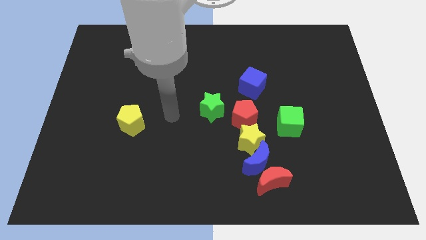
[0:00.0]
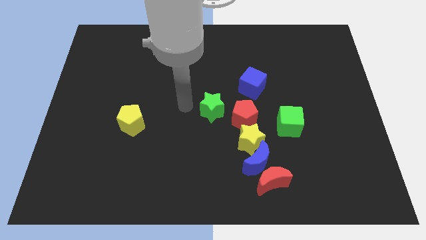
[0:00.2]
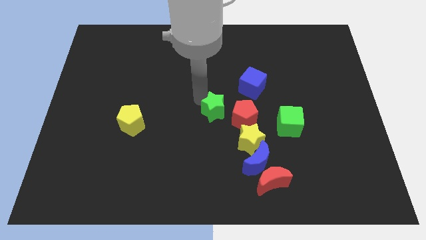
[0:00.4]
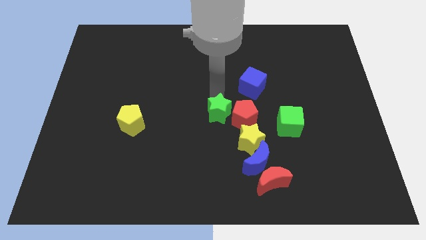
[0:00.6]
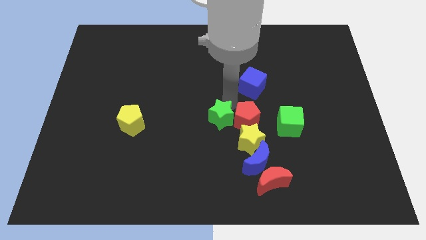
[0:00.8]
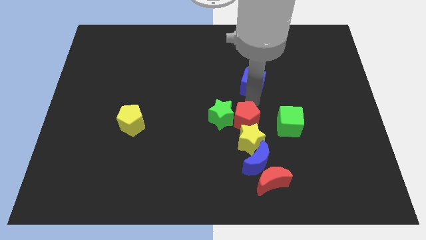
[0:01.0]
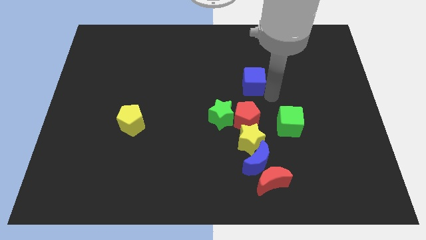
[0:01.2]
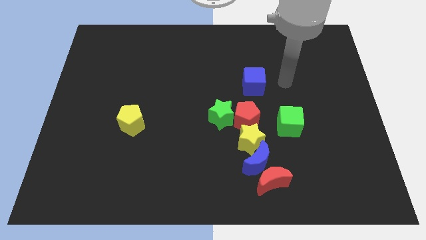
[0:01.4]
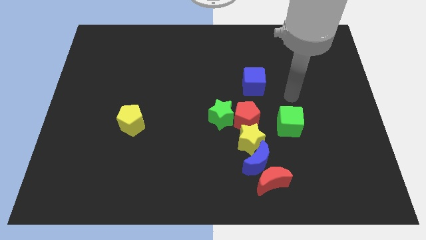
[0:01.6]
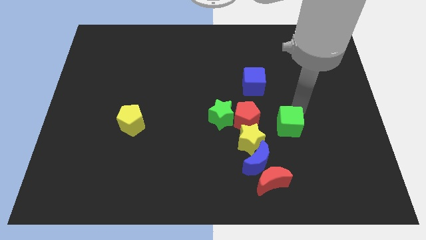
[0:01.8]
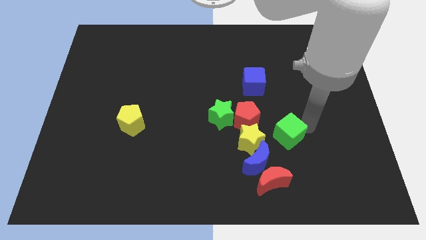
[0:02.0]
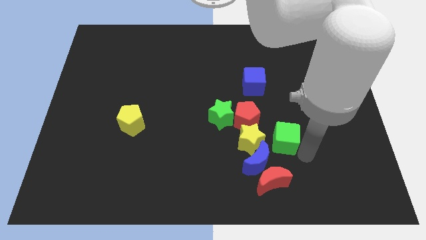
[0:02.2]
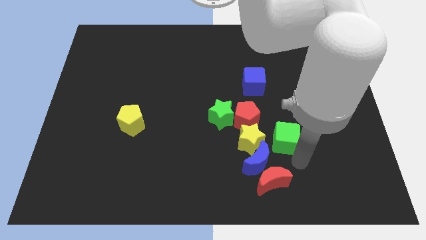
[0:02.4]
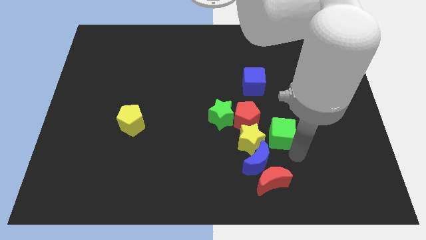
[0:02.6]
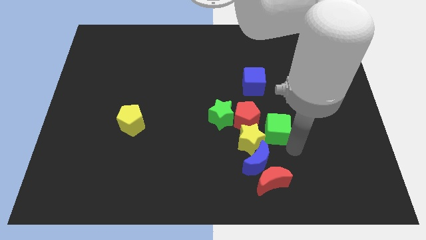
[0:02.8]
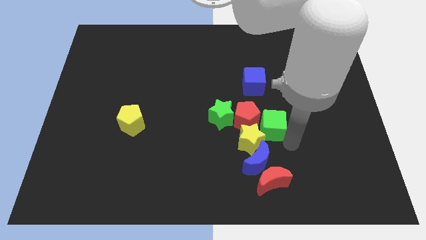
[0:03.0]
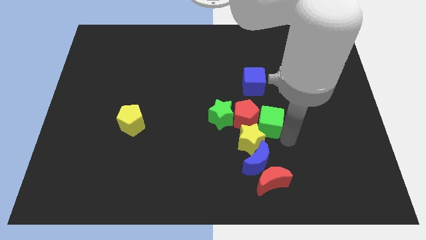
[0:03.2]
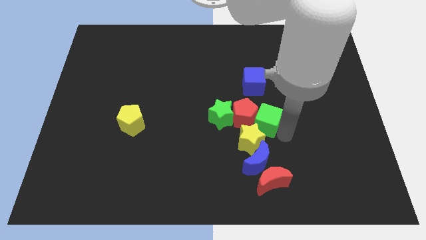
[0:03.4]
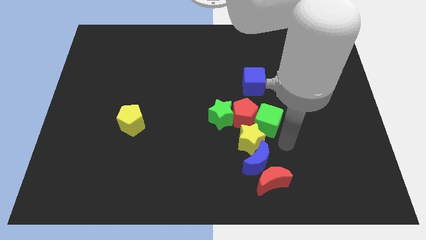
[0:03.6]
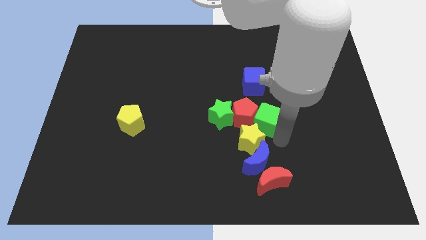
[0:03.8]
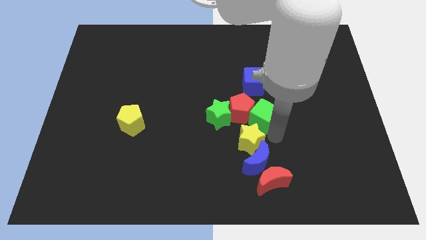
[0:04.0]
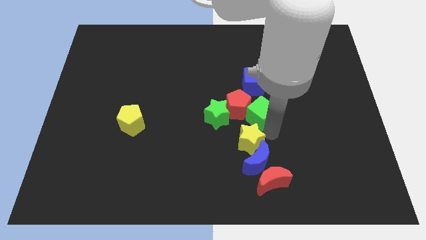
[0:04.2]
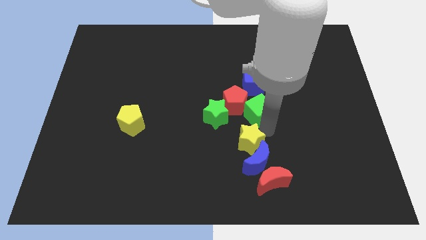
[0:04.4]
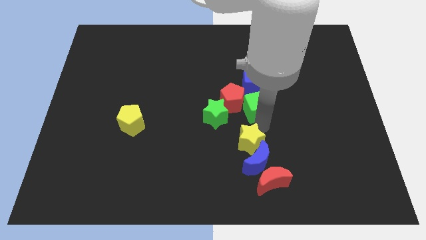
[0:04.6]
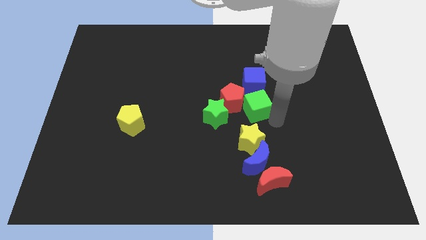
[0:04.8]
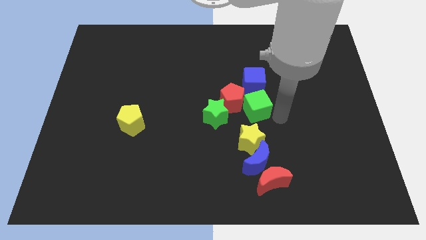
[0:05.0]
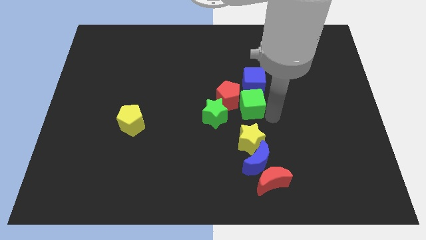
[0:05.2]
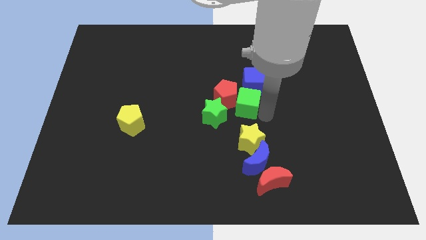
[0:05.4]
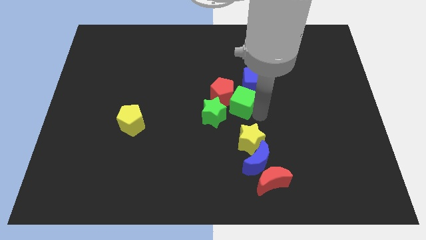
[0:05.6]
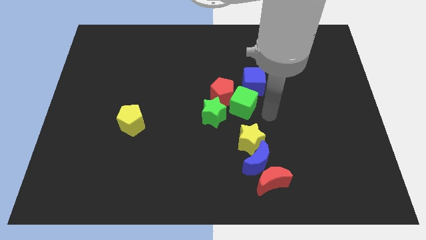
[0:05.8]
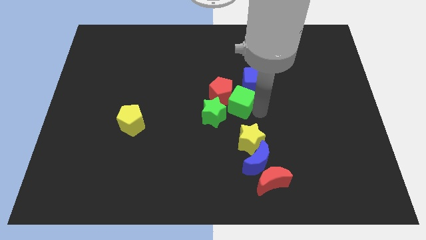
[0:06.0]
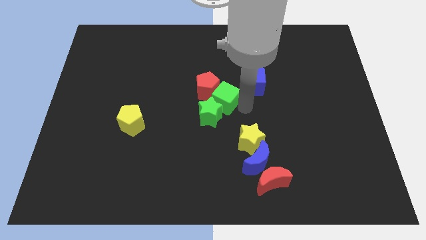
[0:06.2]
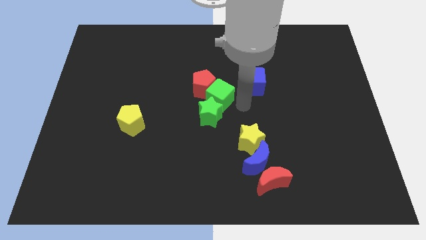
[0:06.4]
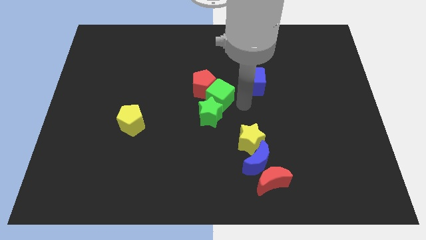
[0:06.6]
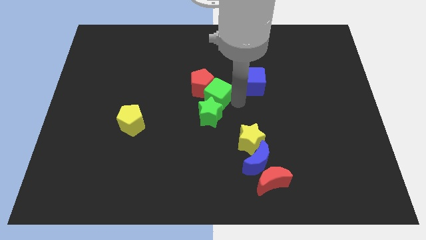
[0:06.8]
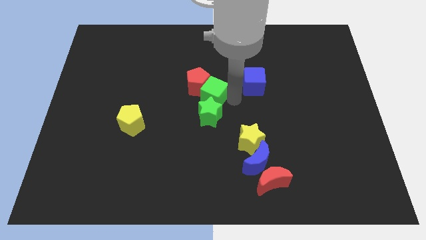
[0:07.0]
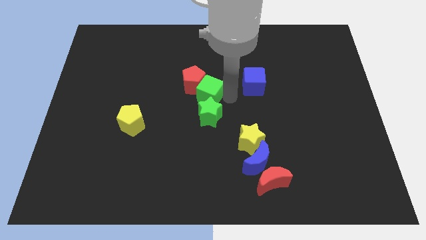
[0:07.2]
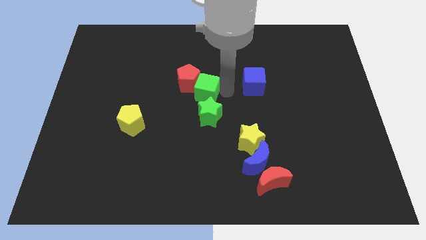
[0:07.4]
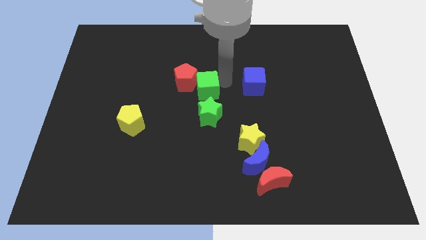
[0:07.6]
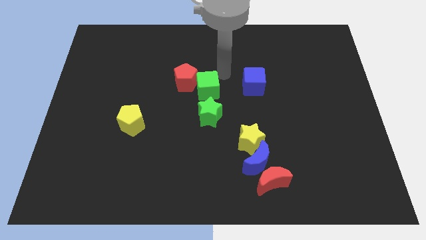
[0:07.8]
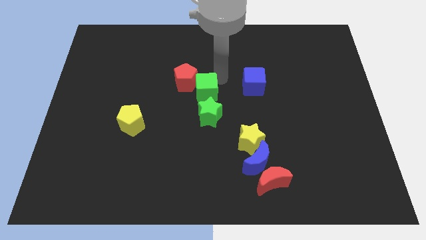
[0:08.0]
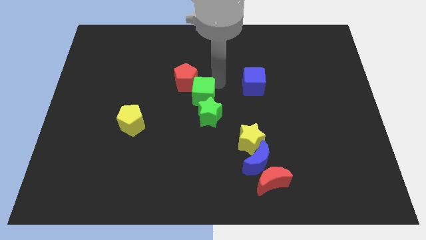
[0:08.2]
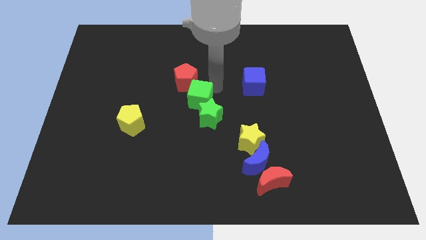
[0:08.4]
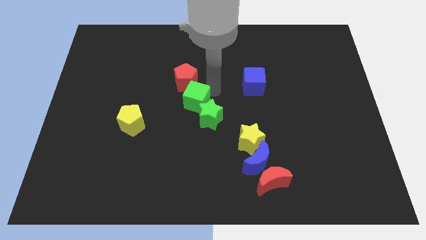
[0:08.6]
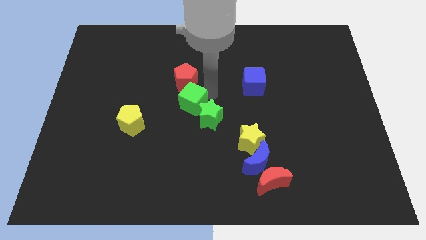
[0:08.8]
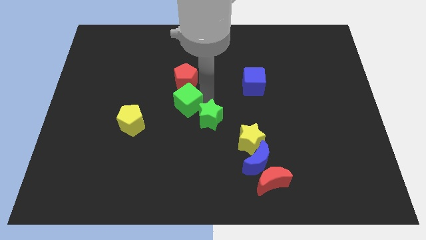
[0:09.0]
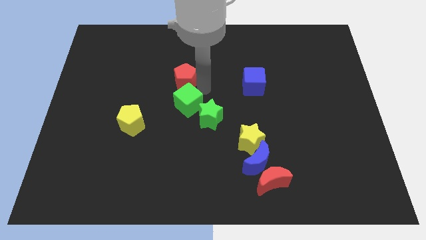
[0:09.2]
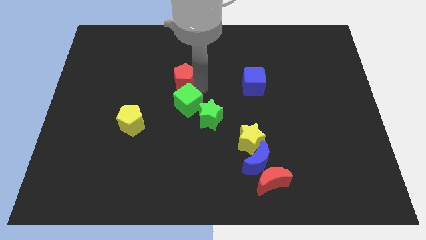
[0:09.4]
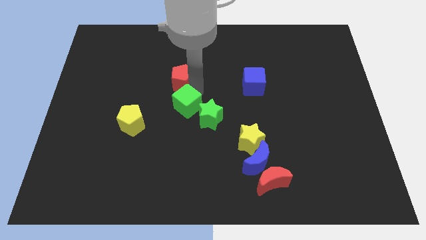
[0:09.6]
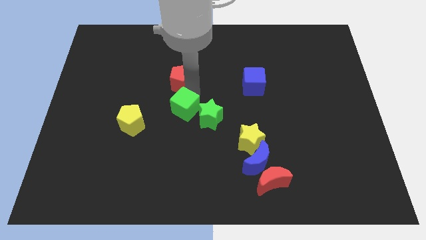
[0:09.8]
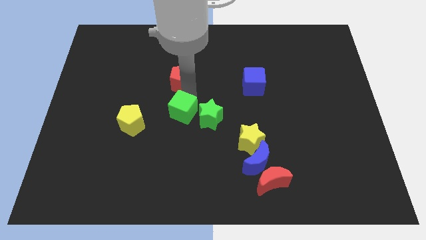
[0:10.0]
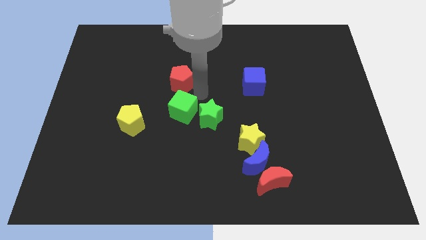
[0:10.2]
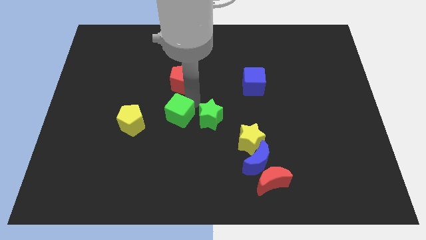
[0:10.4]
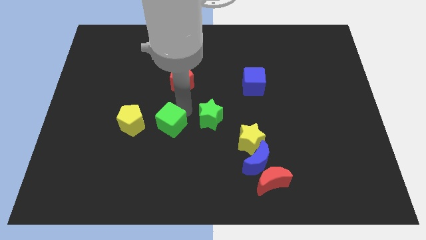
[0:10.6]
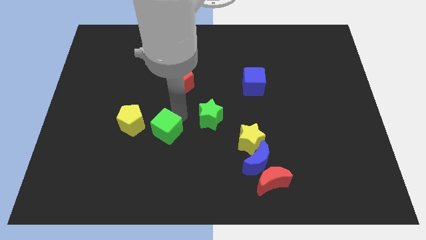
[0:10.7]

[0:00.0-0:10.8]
push the green cube to the bottom right of the yellow pentagon

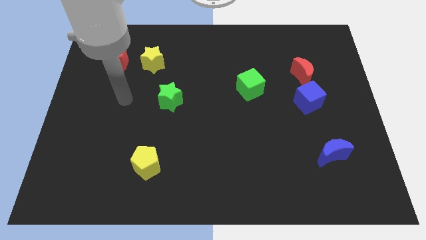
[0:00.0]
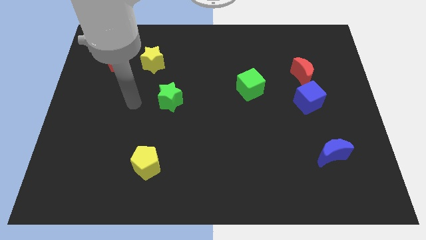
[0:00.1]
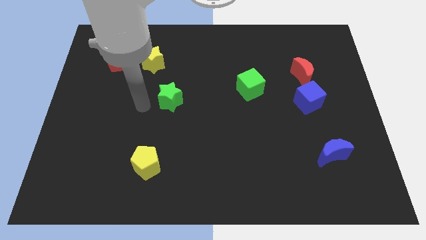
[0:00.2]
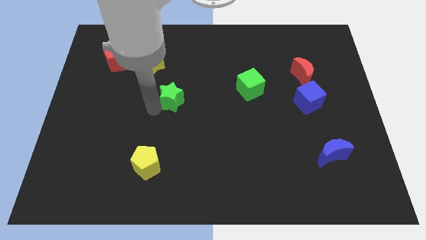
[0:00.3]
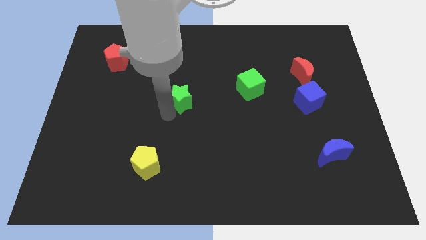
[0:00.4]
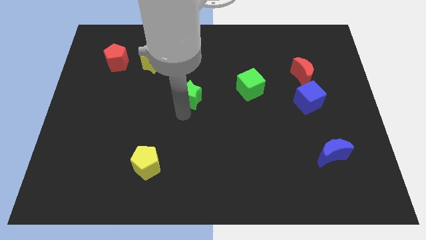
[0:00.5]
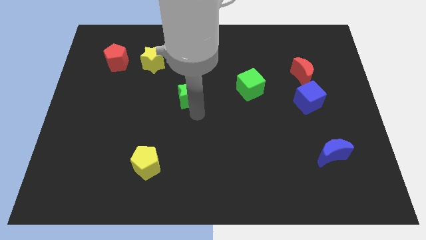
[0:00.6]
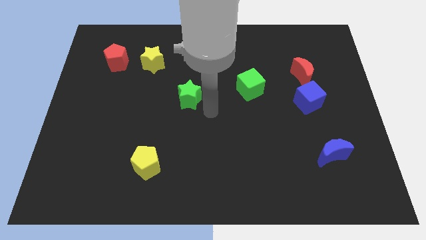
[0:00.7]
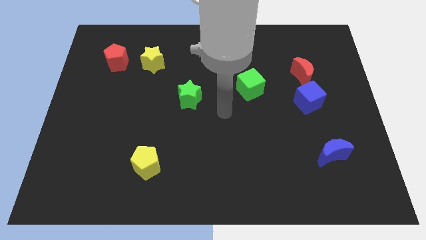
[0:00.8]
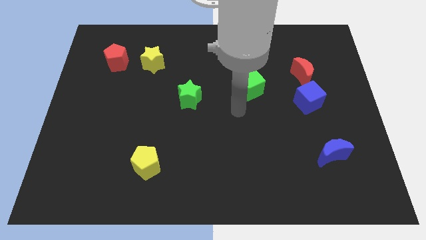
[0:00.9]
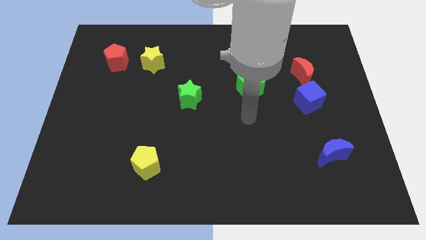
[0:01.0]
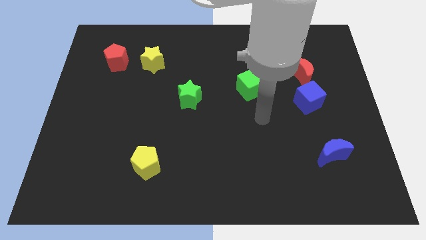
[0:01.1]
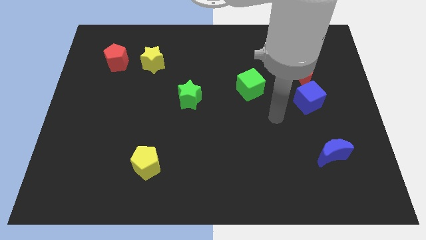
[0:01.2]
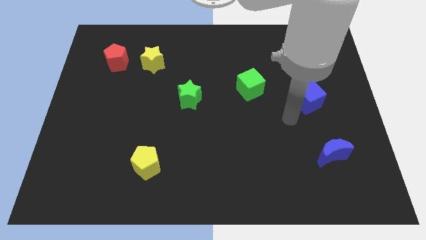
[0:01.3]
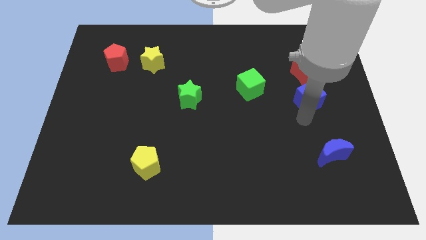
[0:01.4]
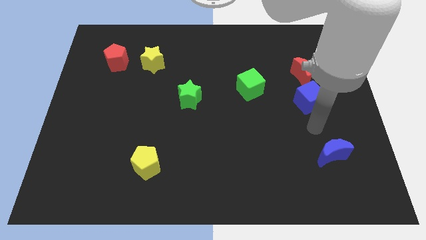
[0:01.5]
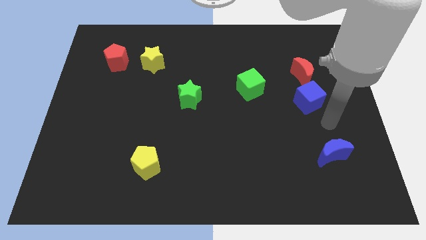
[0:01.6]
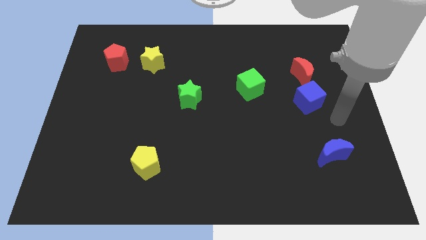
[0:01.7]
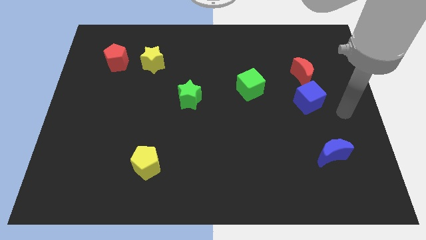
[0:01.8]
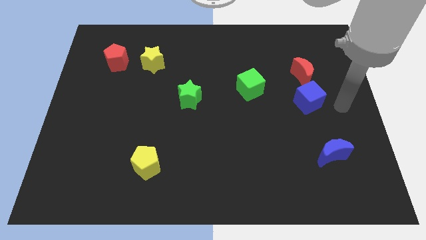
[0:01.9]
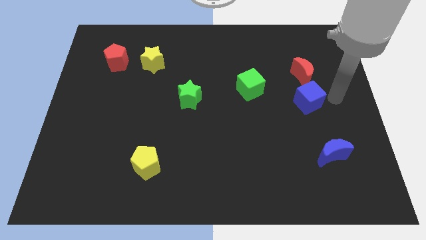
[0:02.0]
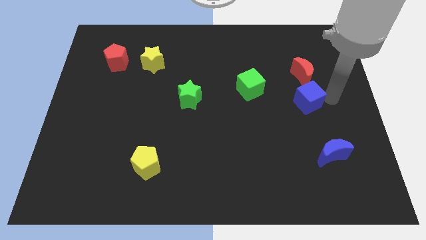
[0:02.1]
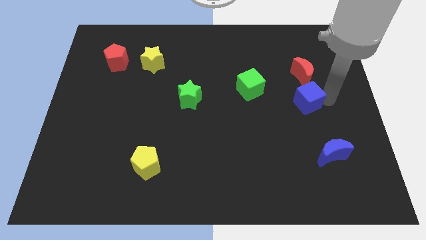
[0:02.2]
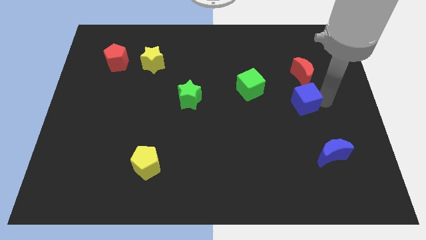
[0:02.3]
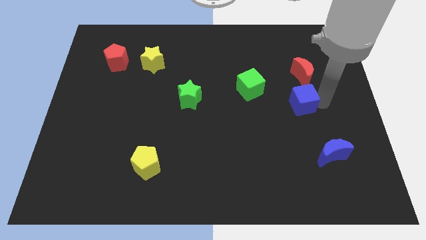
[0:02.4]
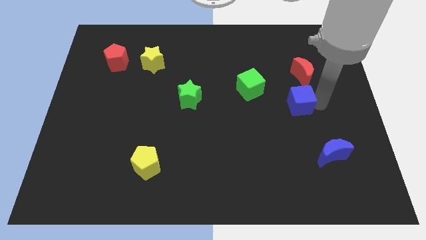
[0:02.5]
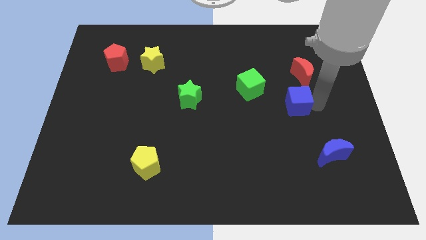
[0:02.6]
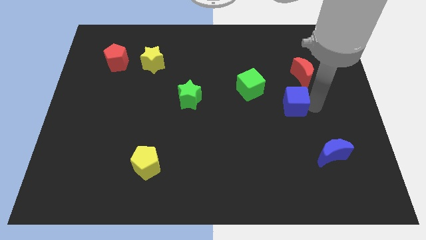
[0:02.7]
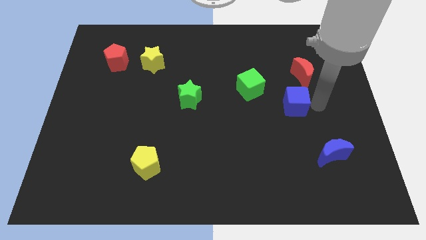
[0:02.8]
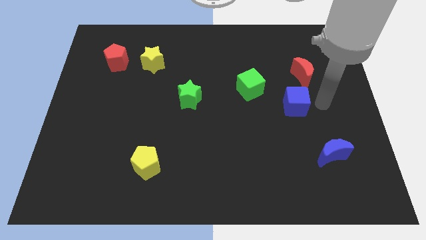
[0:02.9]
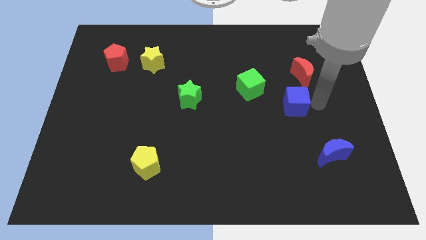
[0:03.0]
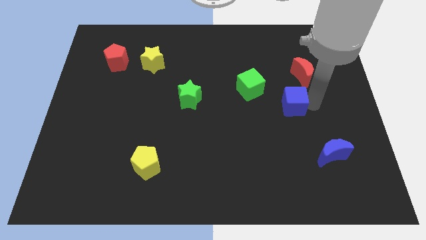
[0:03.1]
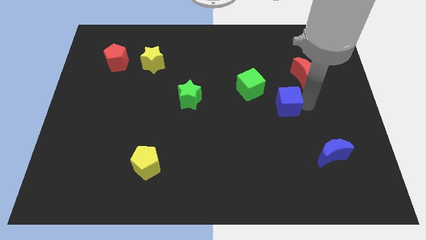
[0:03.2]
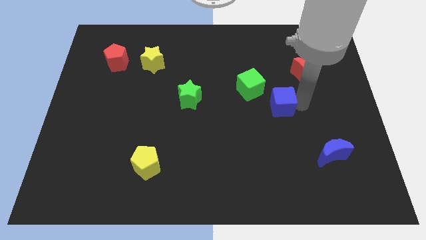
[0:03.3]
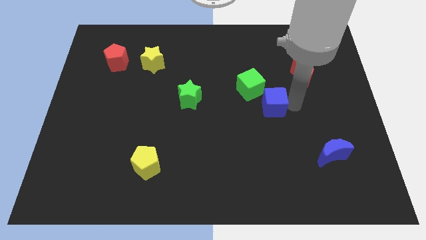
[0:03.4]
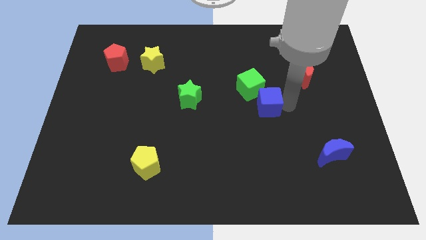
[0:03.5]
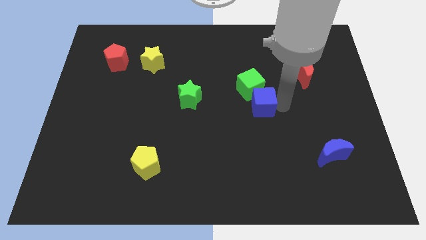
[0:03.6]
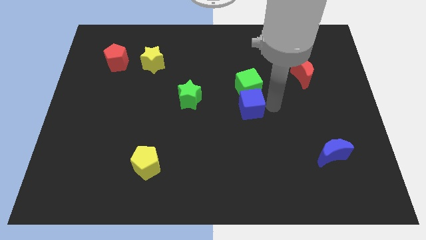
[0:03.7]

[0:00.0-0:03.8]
move the blue cube to the bottom left side of the green cube
